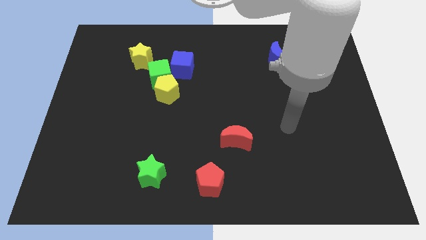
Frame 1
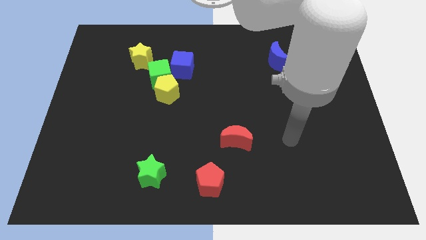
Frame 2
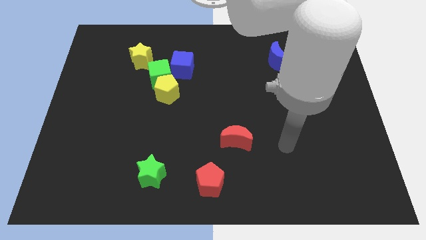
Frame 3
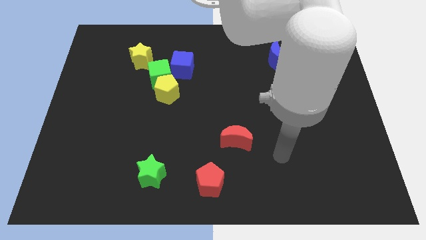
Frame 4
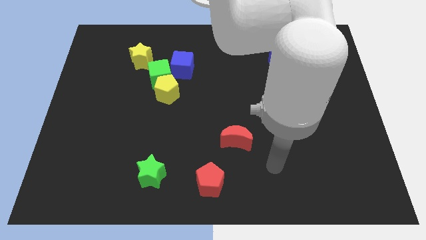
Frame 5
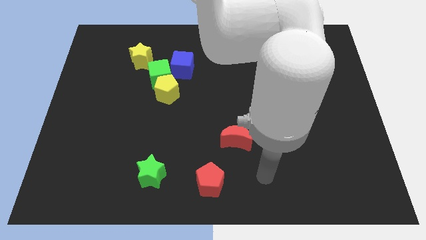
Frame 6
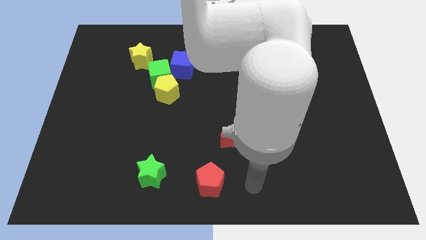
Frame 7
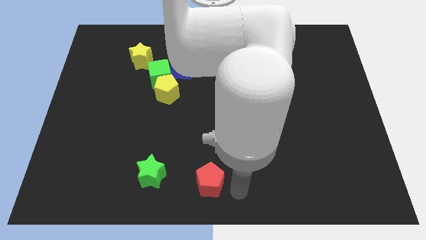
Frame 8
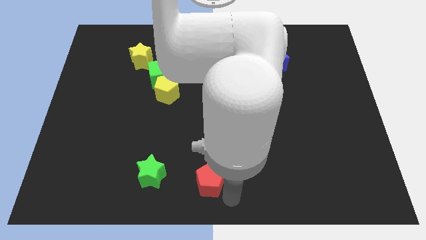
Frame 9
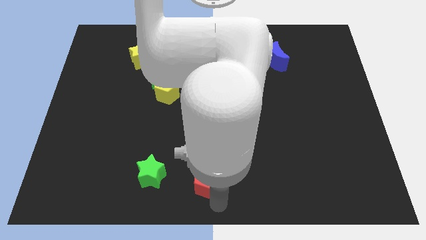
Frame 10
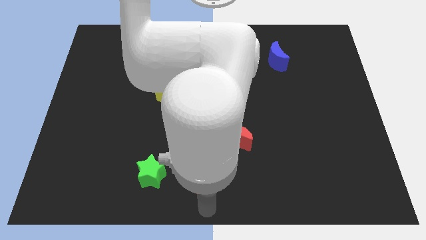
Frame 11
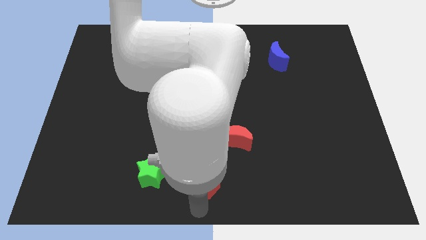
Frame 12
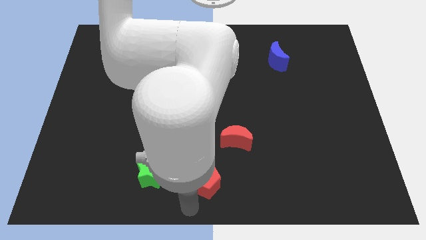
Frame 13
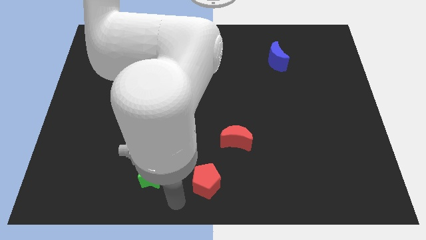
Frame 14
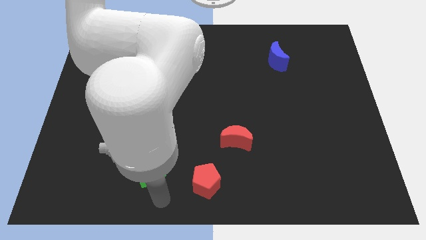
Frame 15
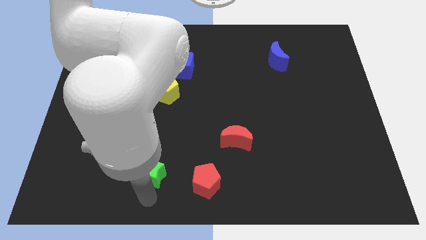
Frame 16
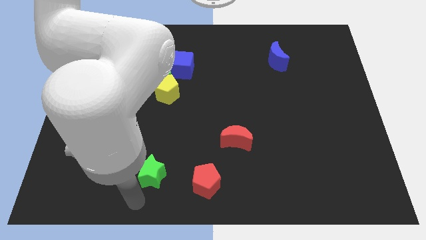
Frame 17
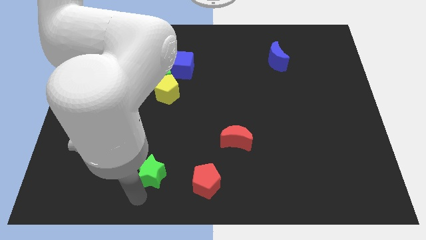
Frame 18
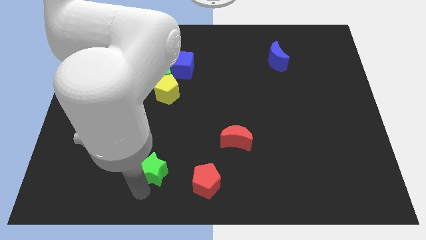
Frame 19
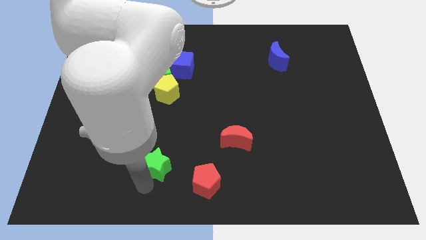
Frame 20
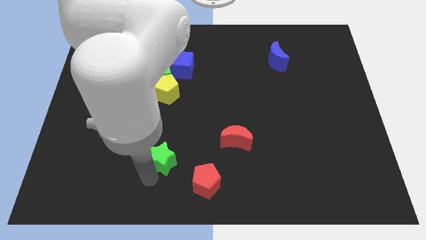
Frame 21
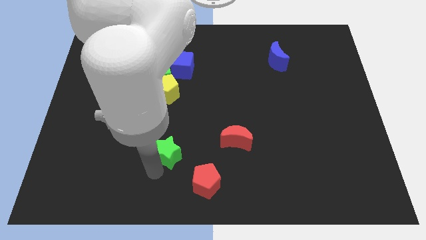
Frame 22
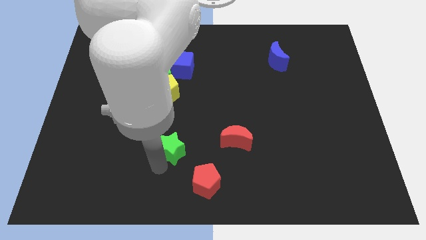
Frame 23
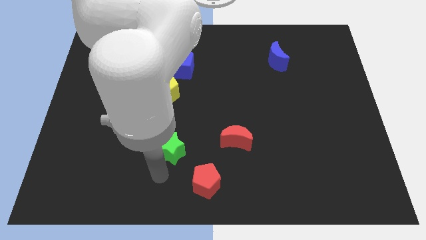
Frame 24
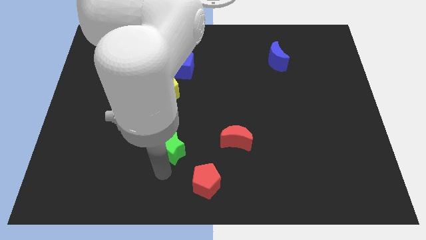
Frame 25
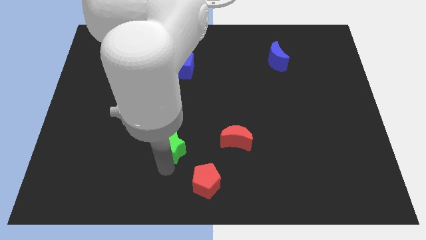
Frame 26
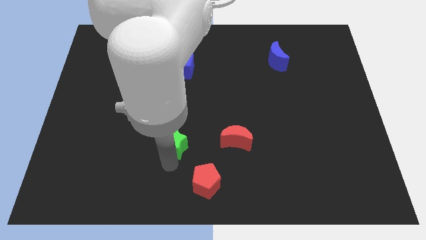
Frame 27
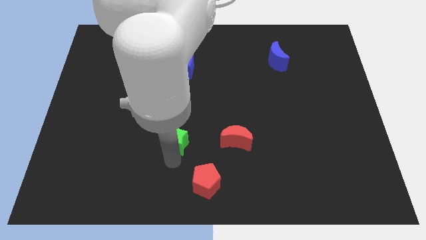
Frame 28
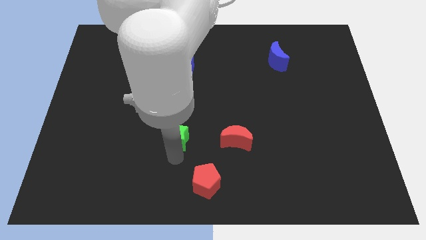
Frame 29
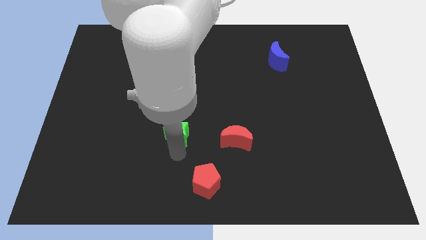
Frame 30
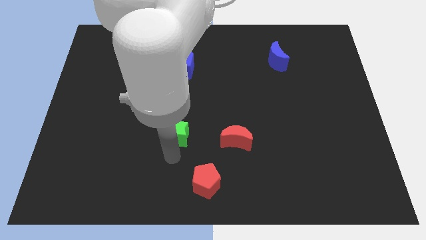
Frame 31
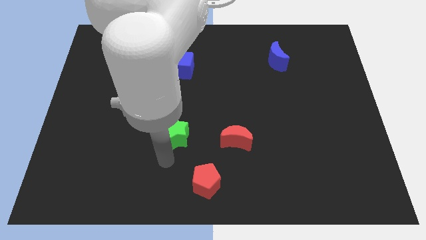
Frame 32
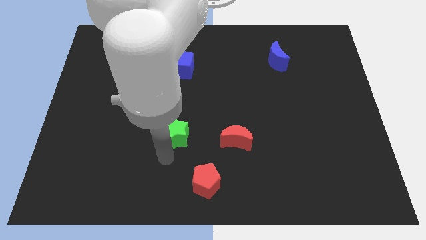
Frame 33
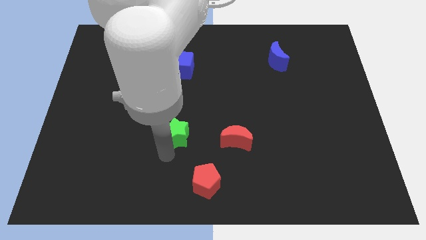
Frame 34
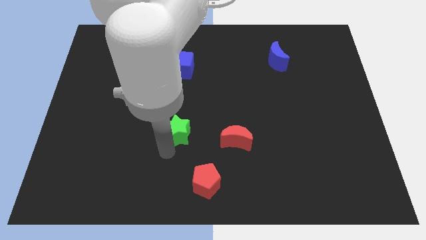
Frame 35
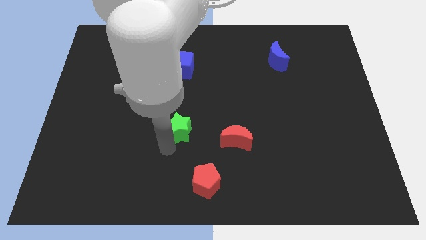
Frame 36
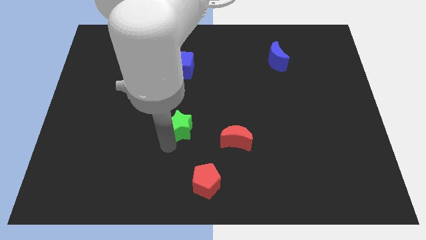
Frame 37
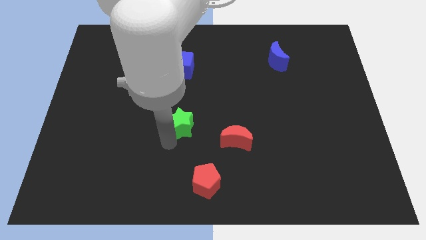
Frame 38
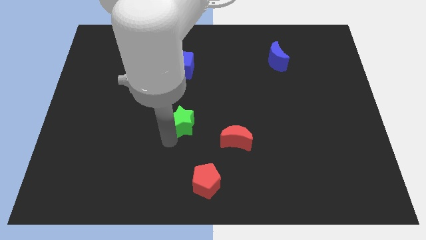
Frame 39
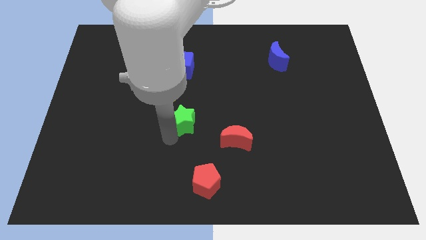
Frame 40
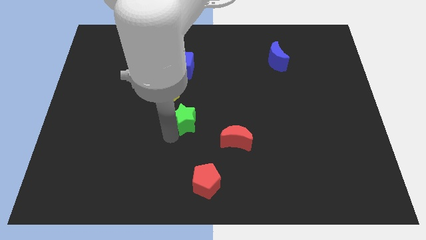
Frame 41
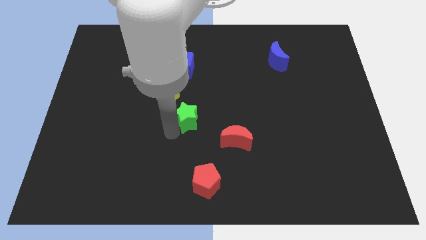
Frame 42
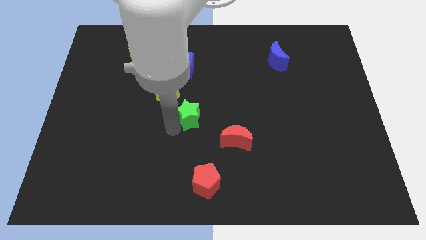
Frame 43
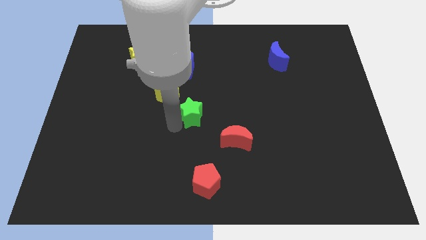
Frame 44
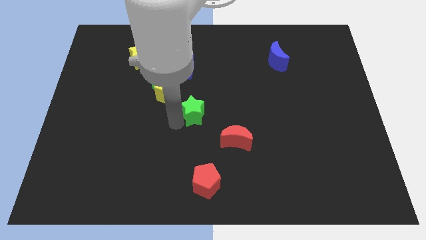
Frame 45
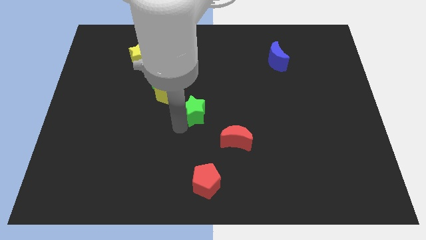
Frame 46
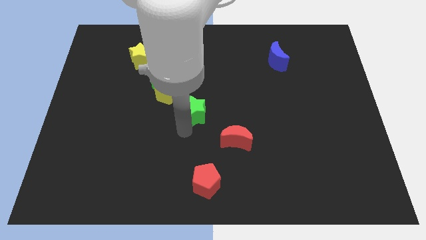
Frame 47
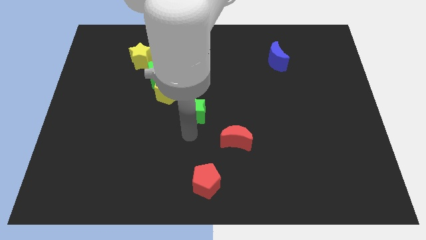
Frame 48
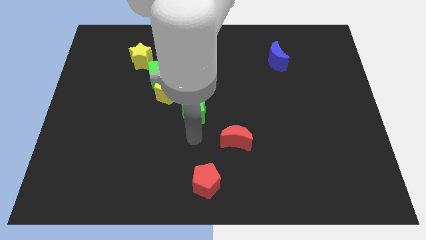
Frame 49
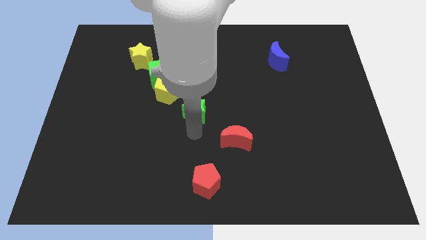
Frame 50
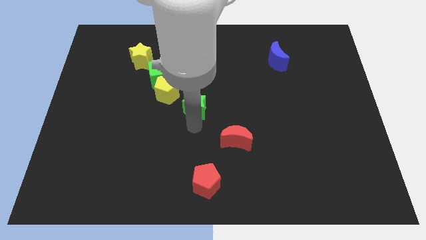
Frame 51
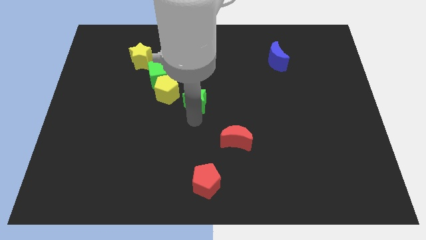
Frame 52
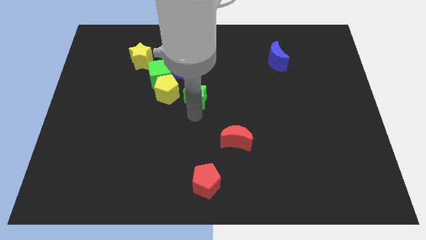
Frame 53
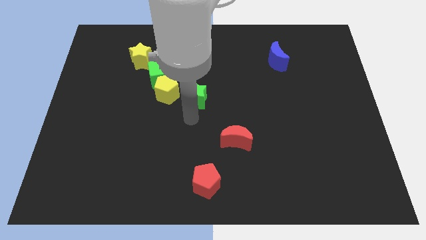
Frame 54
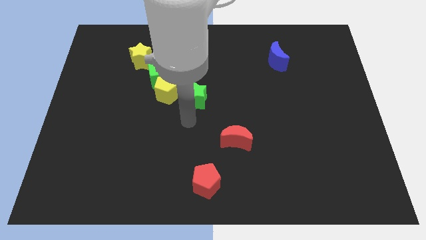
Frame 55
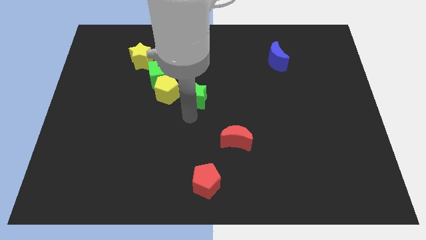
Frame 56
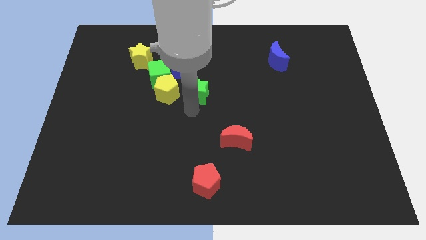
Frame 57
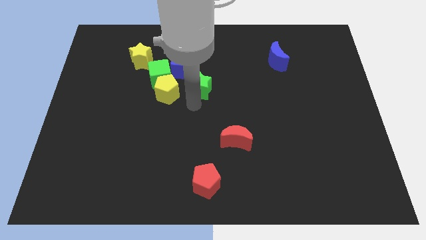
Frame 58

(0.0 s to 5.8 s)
push the green star right of the green cube
